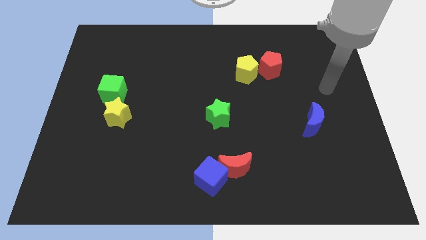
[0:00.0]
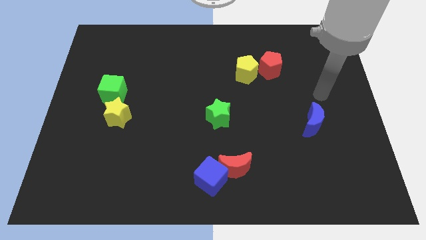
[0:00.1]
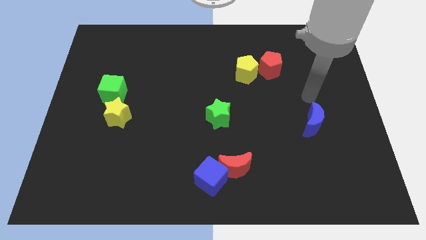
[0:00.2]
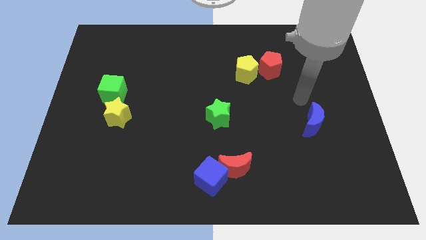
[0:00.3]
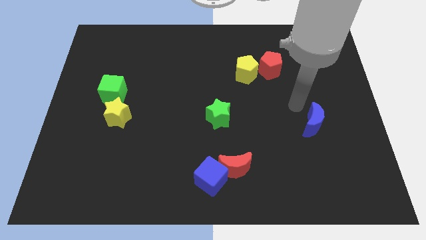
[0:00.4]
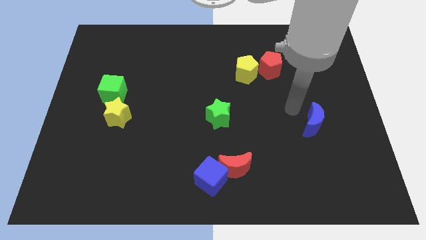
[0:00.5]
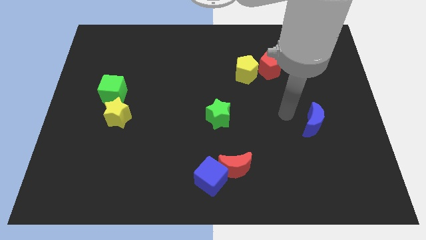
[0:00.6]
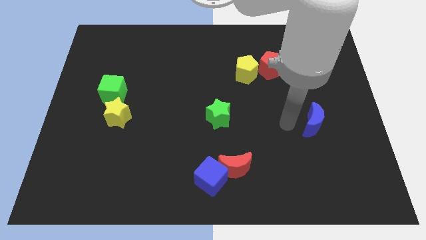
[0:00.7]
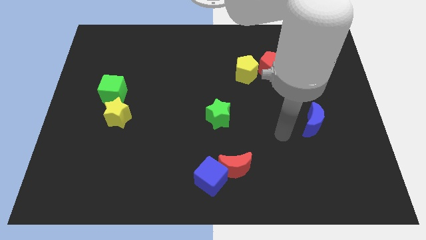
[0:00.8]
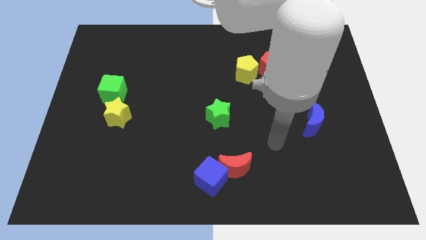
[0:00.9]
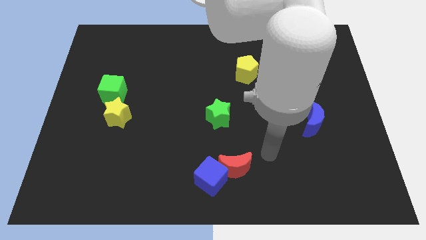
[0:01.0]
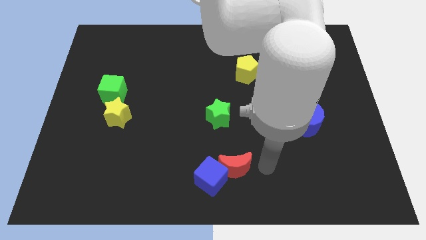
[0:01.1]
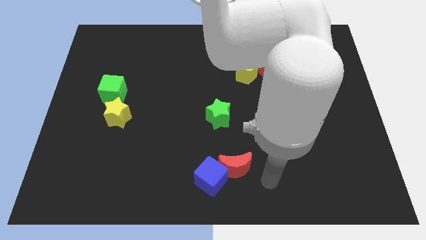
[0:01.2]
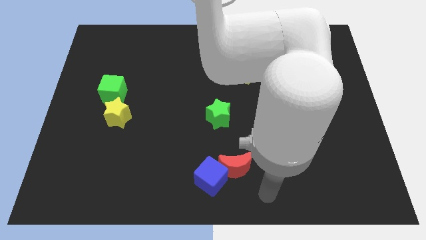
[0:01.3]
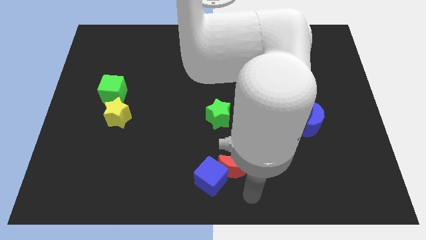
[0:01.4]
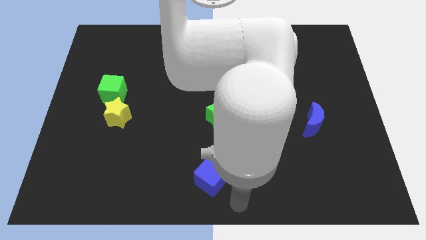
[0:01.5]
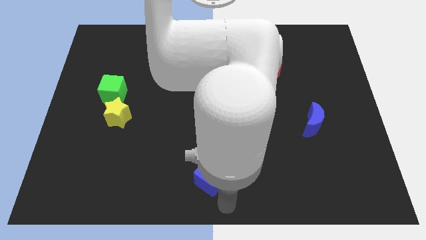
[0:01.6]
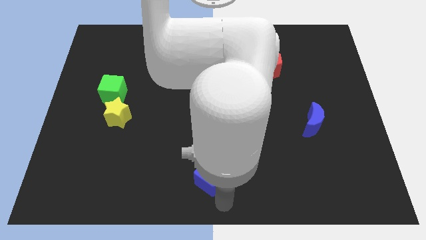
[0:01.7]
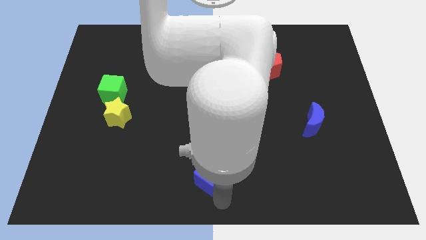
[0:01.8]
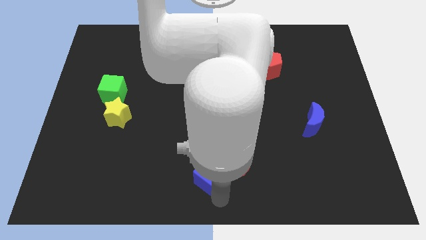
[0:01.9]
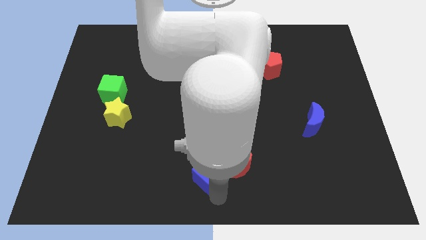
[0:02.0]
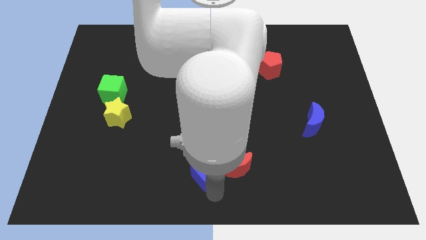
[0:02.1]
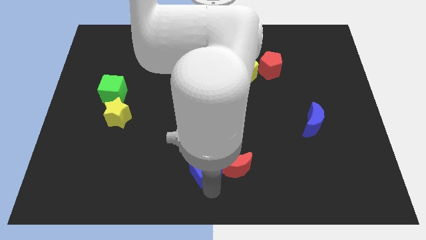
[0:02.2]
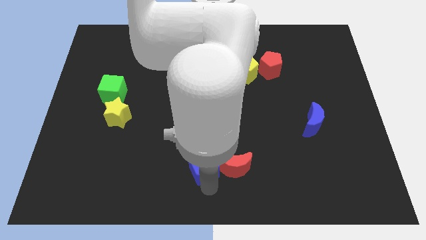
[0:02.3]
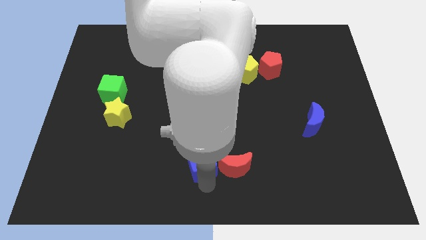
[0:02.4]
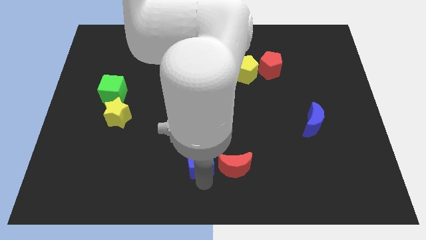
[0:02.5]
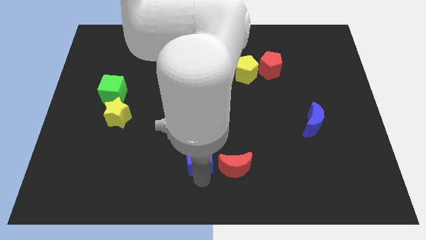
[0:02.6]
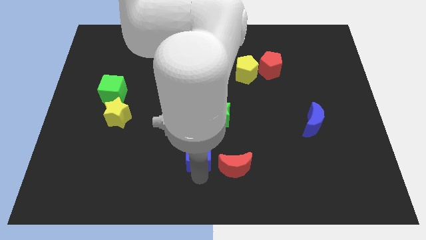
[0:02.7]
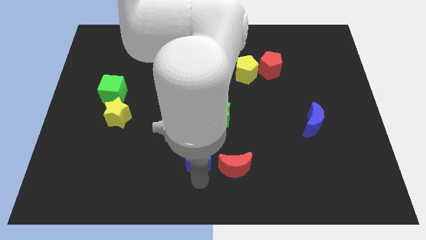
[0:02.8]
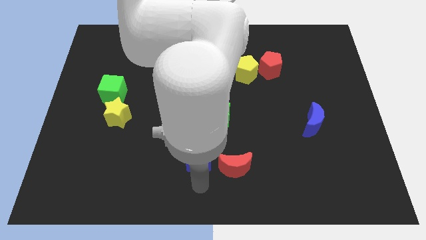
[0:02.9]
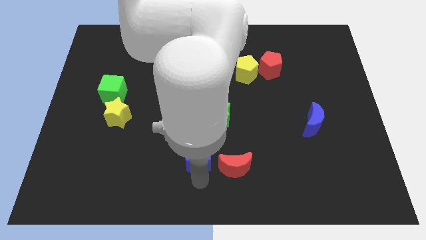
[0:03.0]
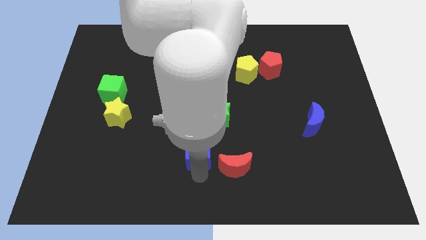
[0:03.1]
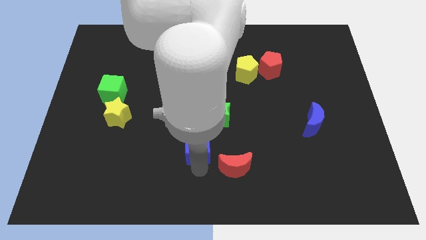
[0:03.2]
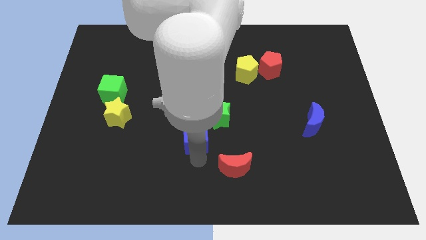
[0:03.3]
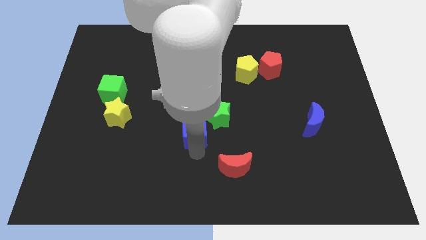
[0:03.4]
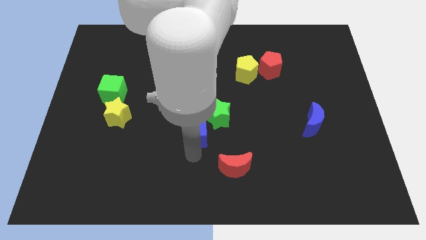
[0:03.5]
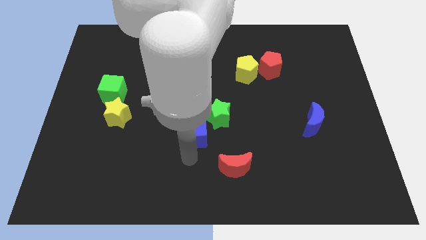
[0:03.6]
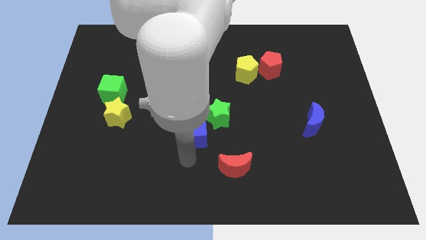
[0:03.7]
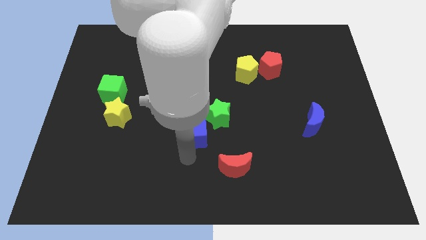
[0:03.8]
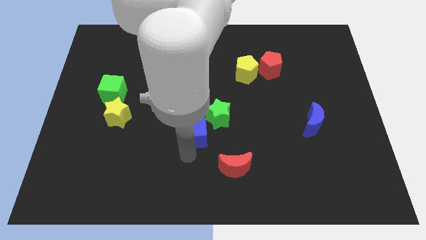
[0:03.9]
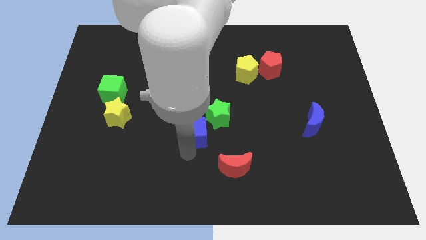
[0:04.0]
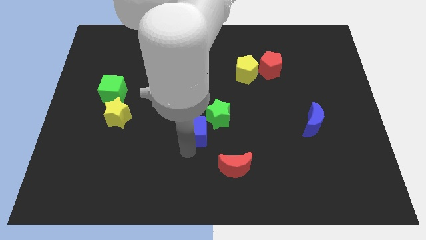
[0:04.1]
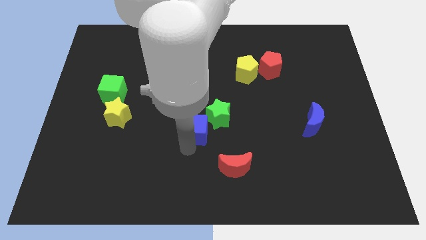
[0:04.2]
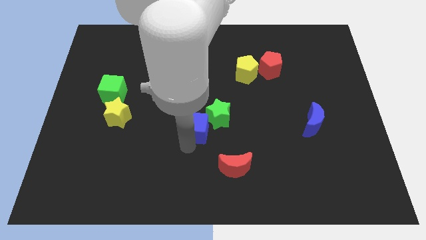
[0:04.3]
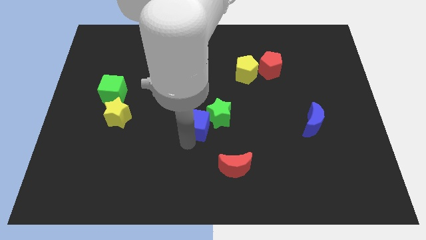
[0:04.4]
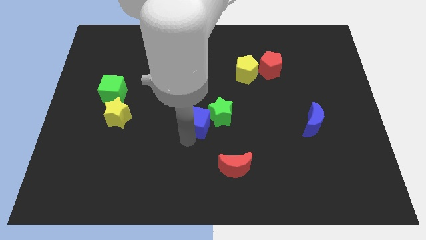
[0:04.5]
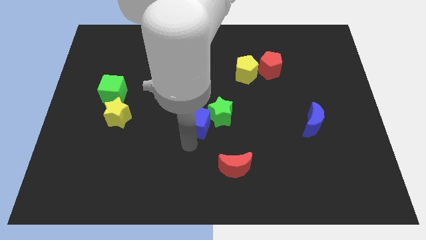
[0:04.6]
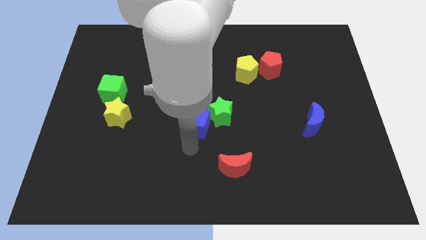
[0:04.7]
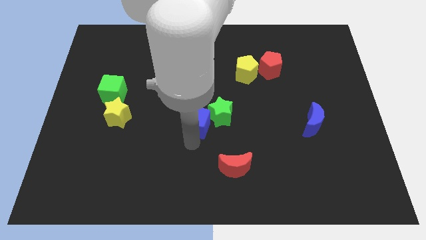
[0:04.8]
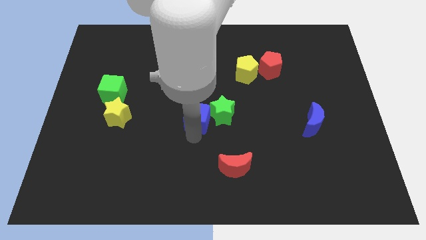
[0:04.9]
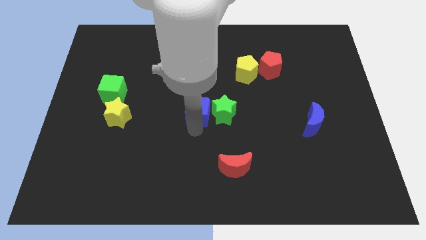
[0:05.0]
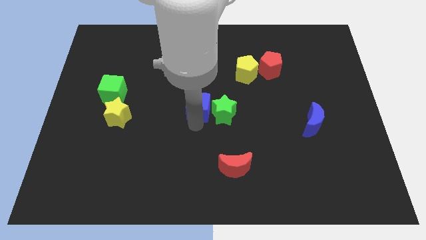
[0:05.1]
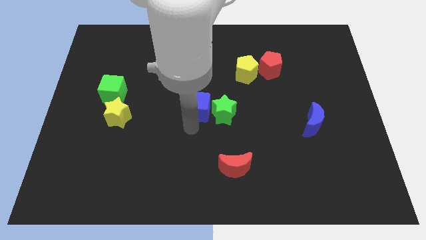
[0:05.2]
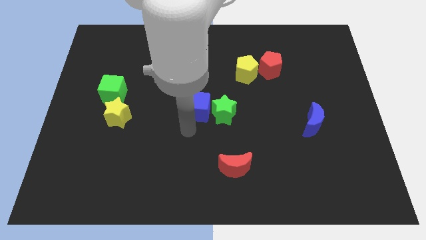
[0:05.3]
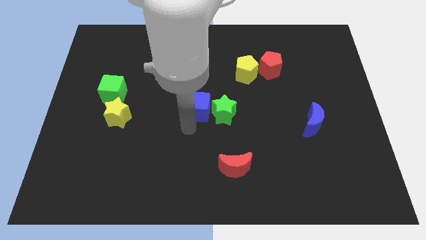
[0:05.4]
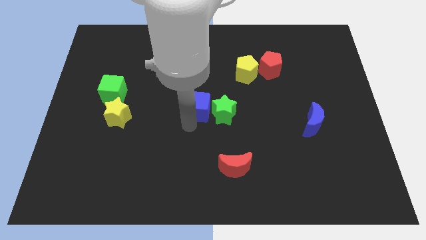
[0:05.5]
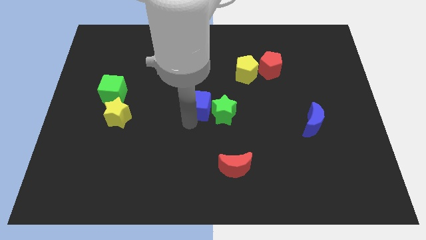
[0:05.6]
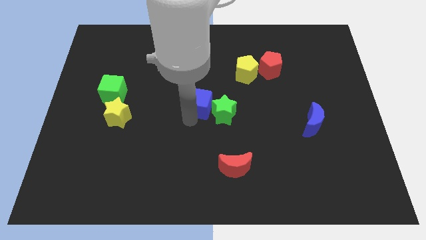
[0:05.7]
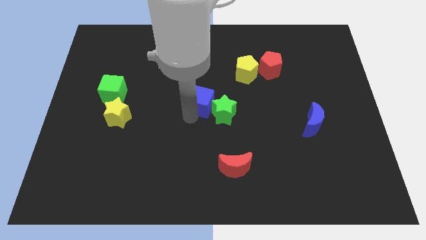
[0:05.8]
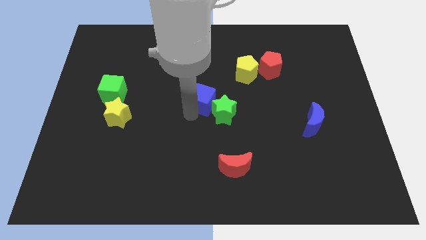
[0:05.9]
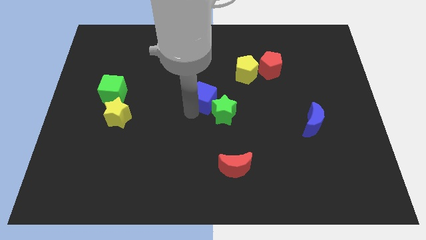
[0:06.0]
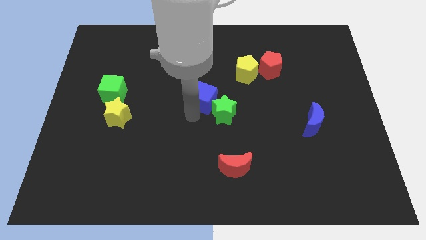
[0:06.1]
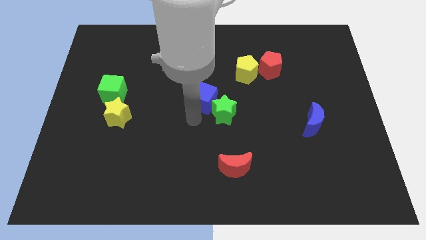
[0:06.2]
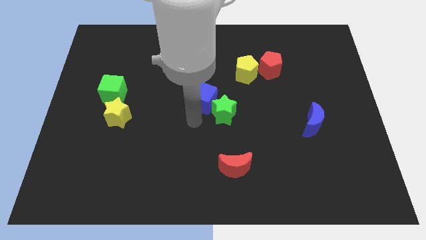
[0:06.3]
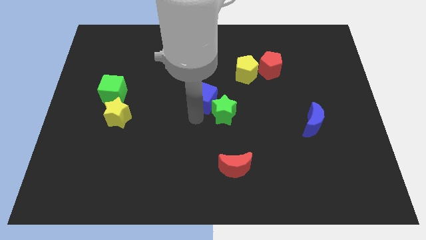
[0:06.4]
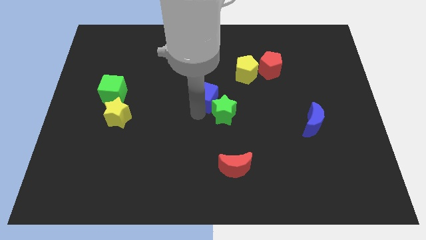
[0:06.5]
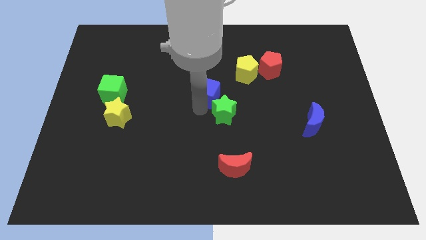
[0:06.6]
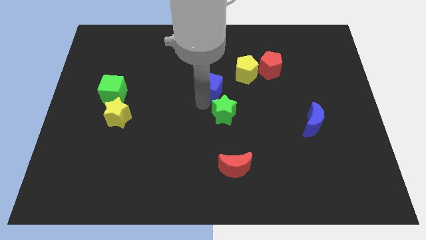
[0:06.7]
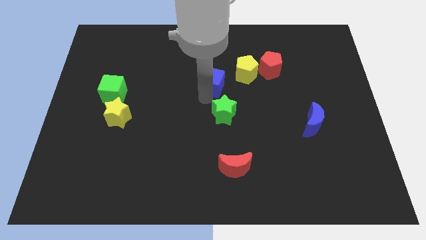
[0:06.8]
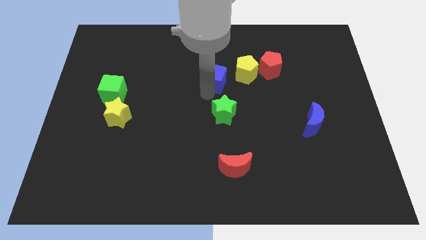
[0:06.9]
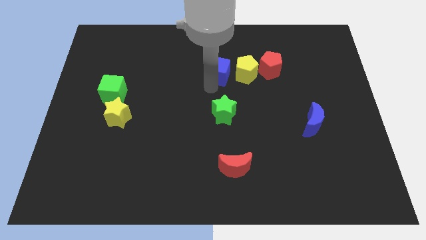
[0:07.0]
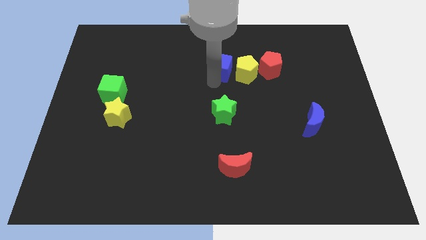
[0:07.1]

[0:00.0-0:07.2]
put the blue cube diagonally up and to the left of the yellow pentagon

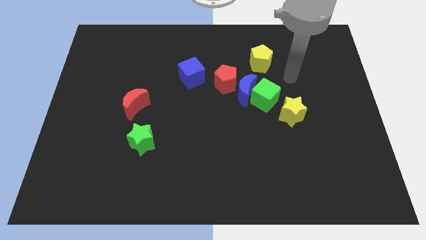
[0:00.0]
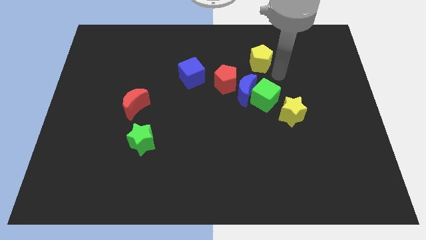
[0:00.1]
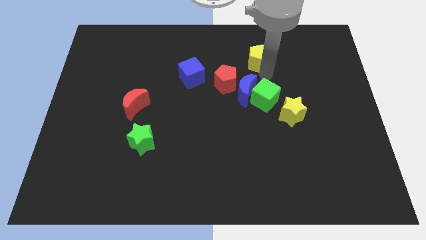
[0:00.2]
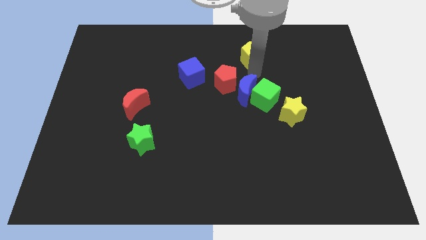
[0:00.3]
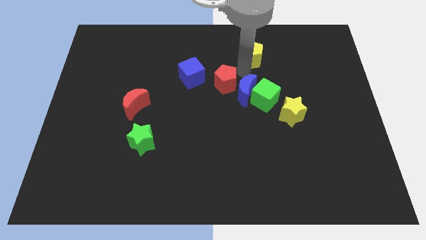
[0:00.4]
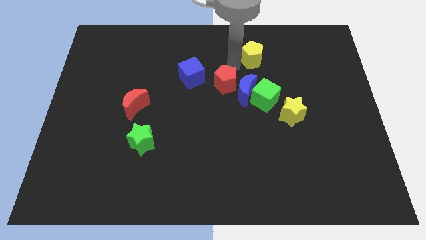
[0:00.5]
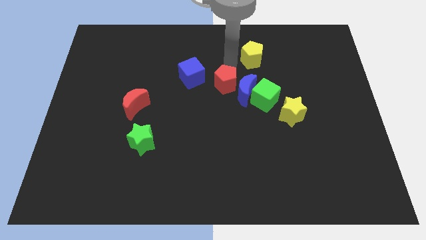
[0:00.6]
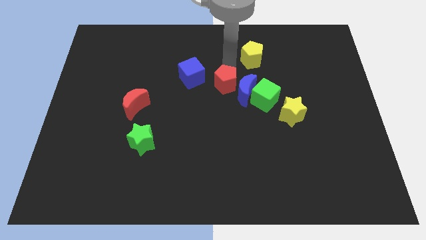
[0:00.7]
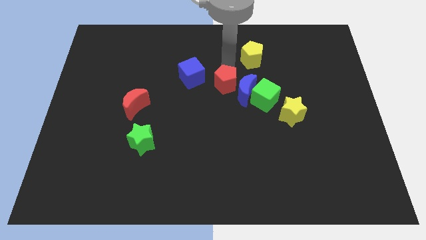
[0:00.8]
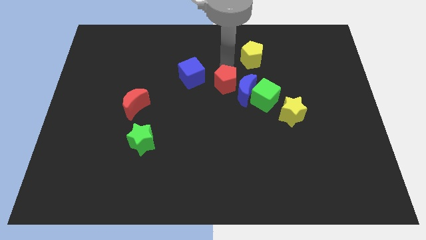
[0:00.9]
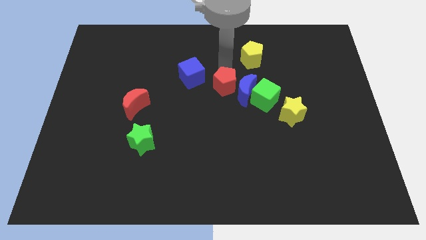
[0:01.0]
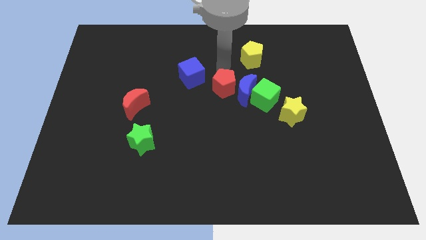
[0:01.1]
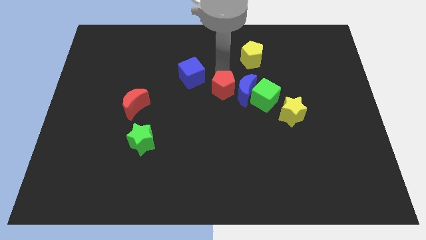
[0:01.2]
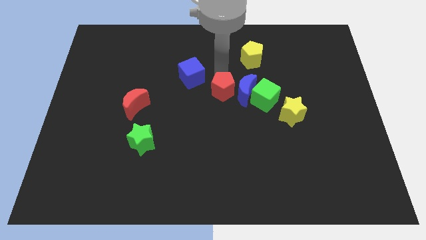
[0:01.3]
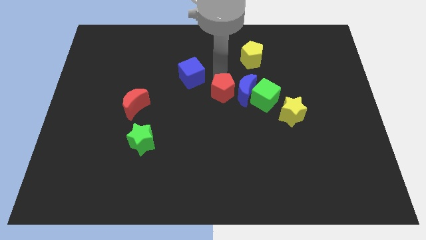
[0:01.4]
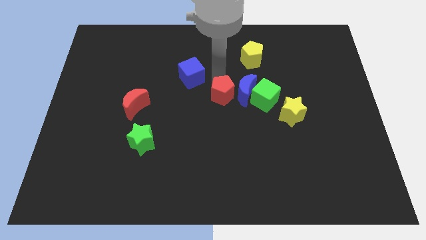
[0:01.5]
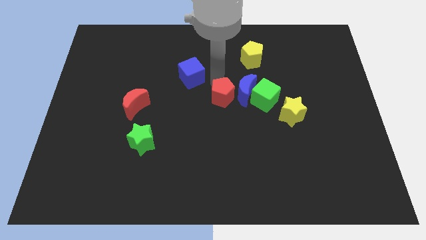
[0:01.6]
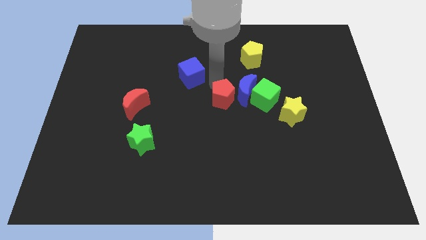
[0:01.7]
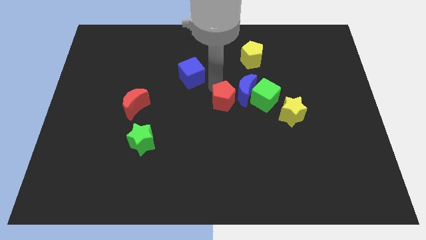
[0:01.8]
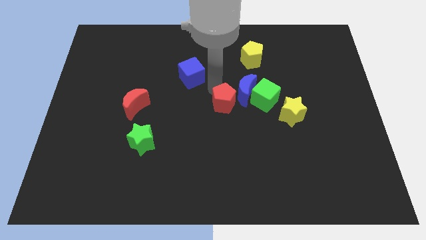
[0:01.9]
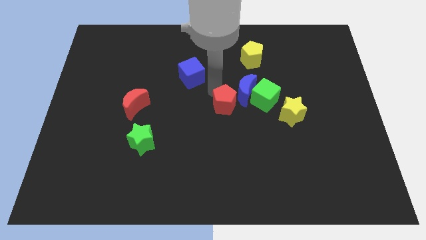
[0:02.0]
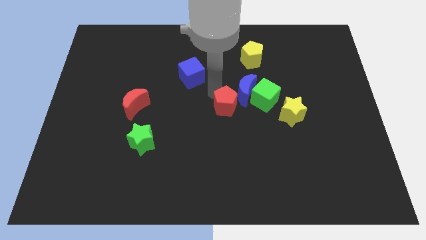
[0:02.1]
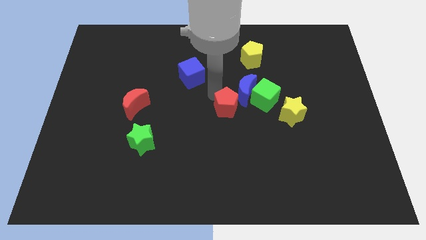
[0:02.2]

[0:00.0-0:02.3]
put the red pentagon to the bottom left of the green cube
